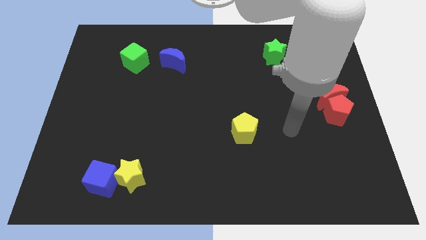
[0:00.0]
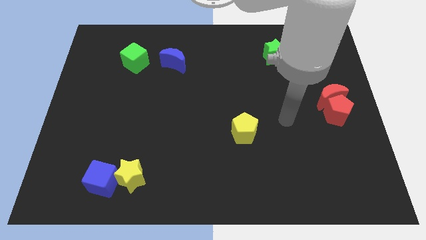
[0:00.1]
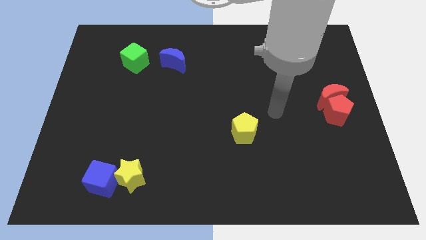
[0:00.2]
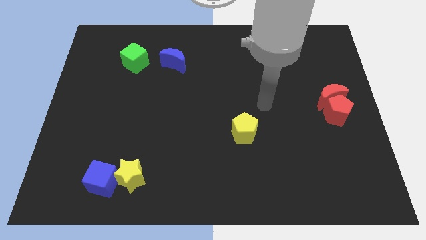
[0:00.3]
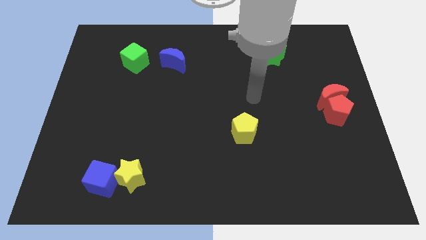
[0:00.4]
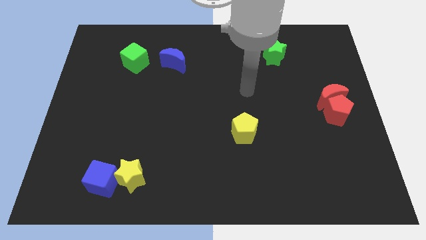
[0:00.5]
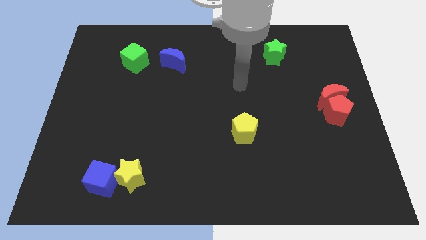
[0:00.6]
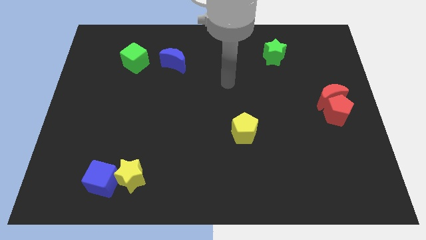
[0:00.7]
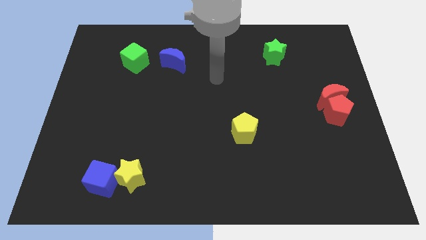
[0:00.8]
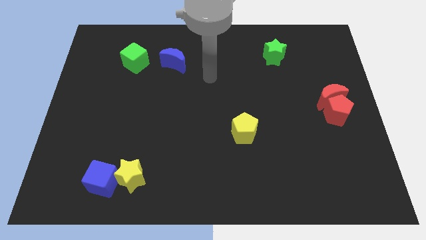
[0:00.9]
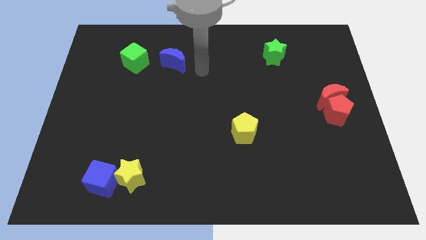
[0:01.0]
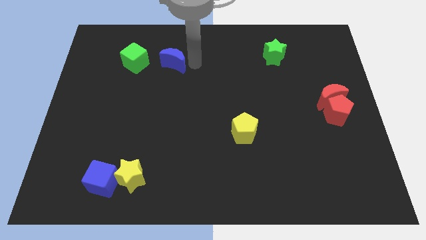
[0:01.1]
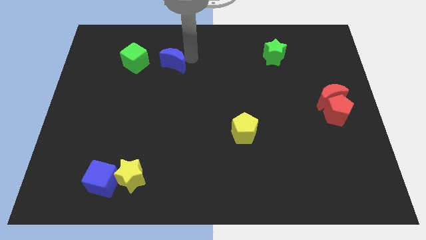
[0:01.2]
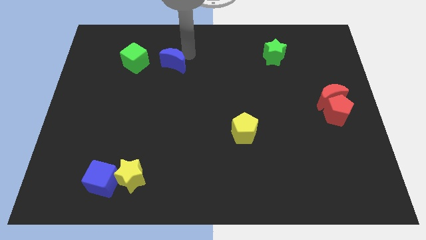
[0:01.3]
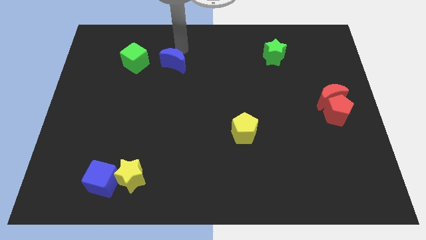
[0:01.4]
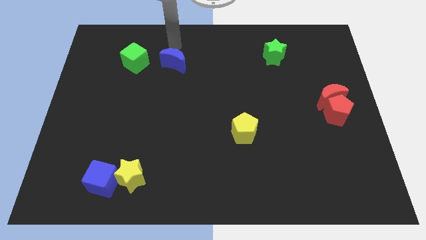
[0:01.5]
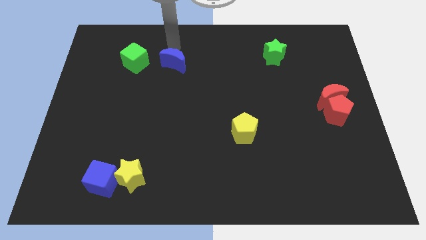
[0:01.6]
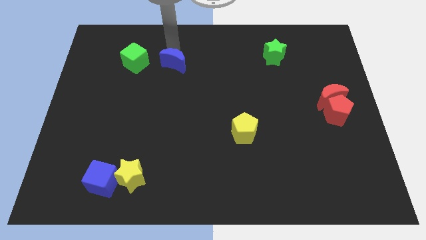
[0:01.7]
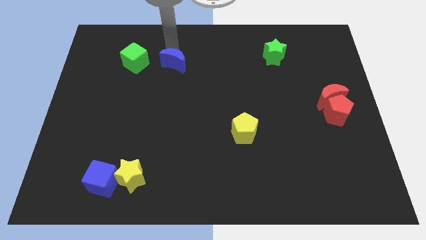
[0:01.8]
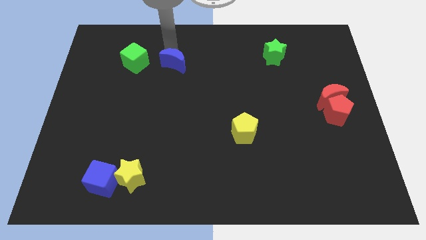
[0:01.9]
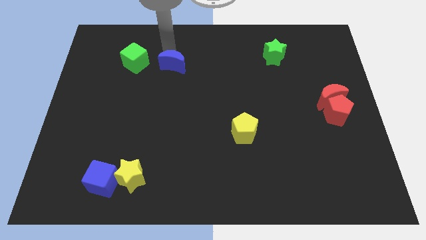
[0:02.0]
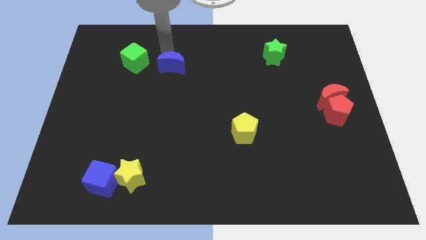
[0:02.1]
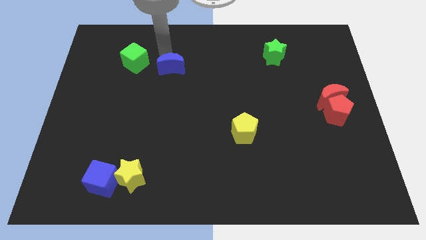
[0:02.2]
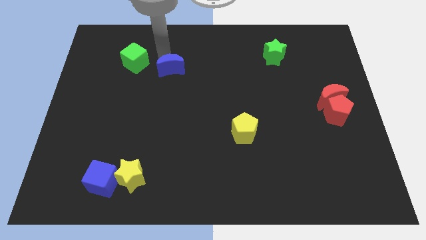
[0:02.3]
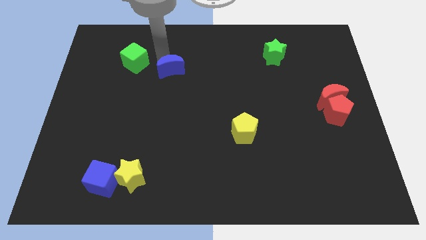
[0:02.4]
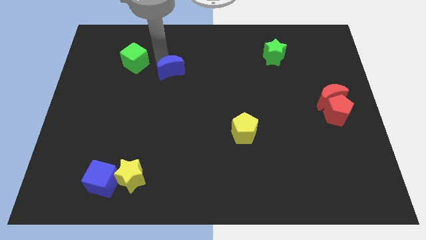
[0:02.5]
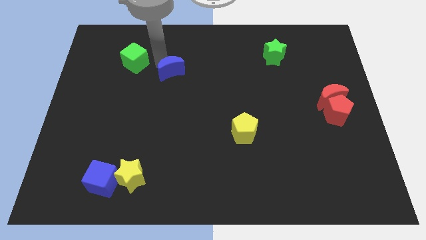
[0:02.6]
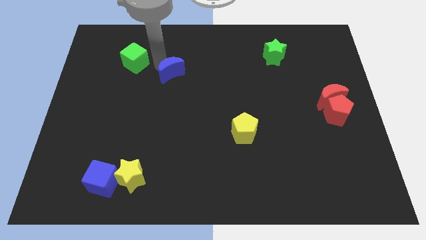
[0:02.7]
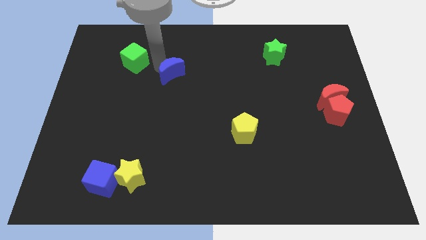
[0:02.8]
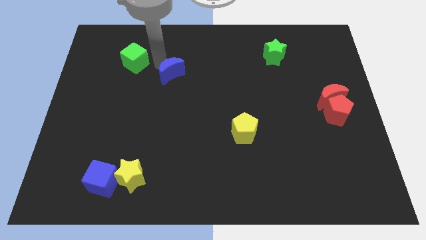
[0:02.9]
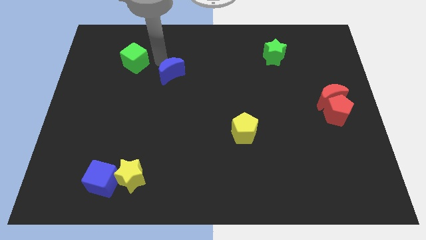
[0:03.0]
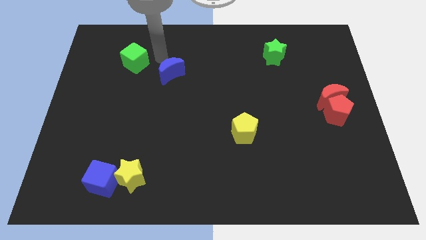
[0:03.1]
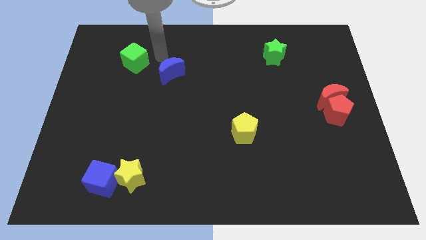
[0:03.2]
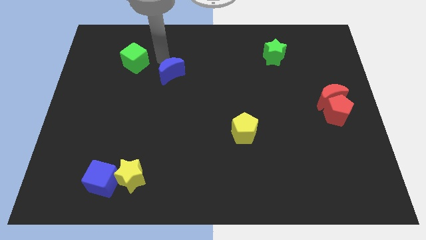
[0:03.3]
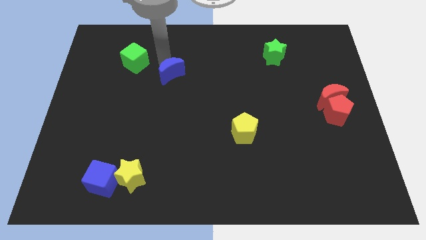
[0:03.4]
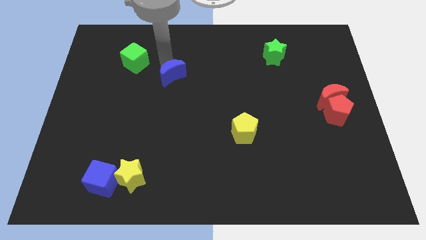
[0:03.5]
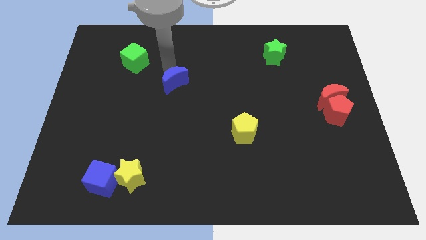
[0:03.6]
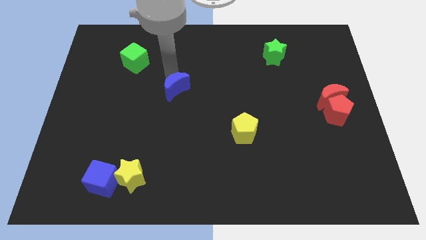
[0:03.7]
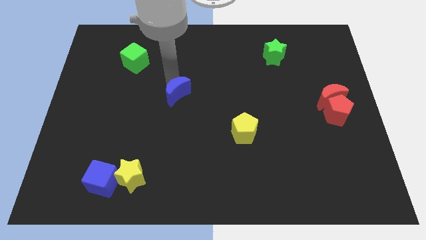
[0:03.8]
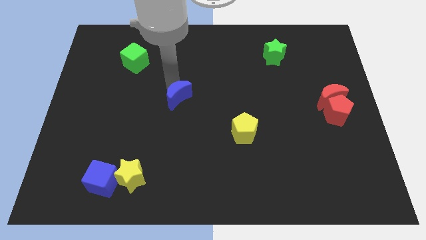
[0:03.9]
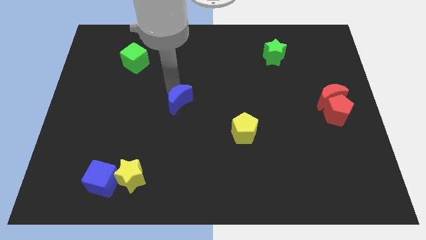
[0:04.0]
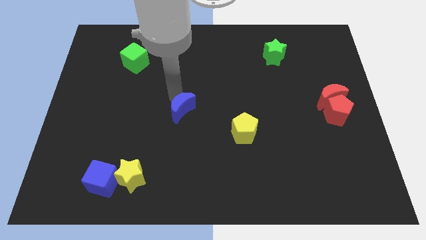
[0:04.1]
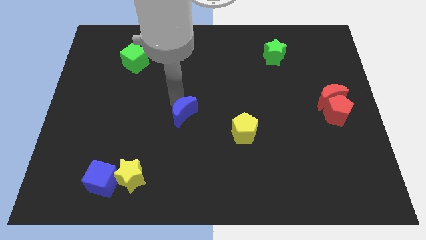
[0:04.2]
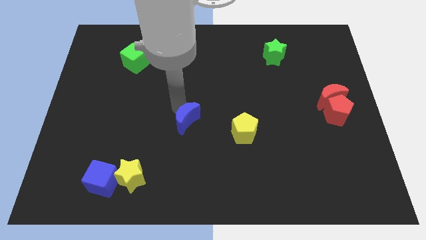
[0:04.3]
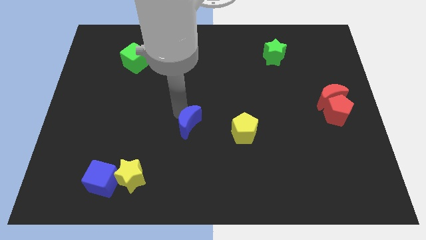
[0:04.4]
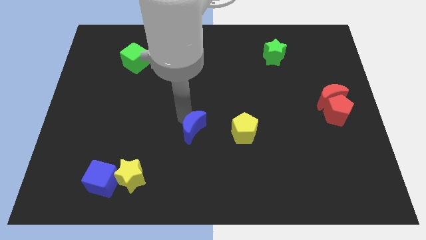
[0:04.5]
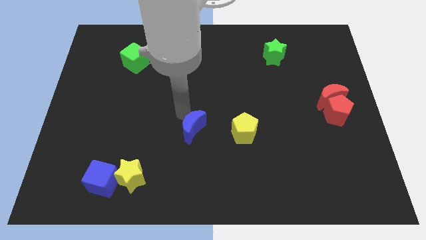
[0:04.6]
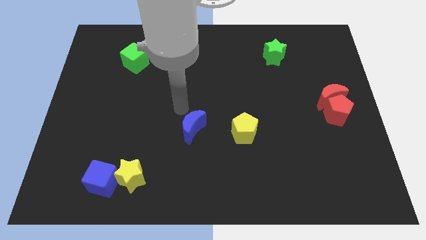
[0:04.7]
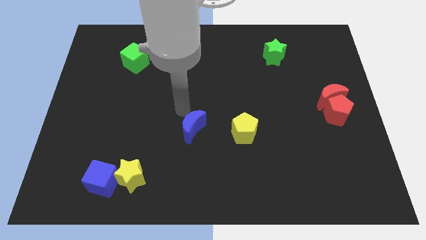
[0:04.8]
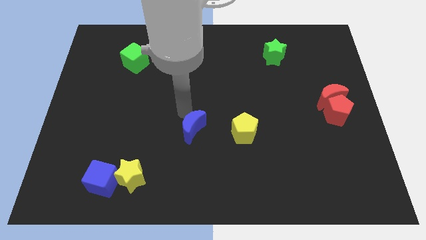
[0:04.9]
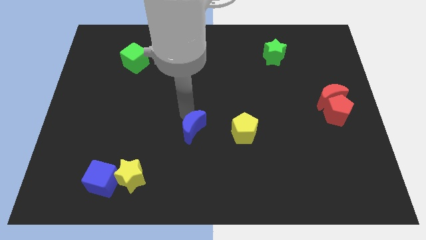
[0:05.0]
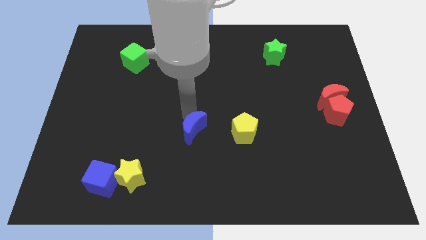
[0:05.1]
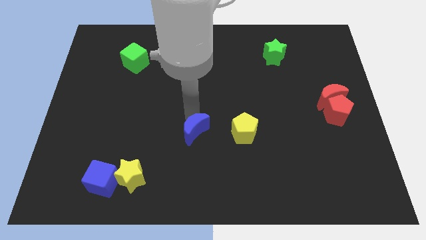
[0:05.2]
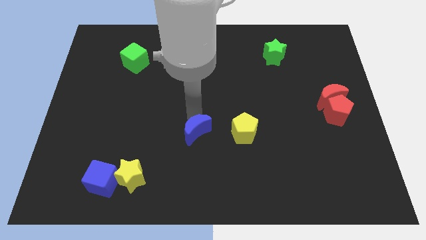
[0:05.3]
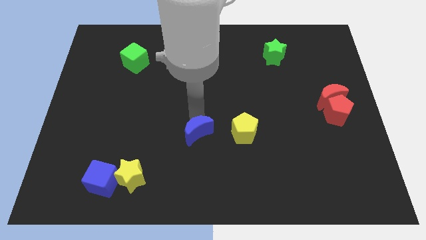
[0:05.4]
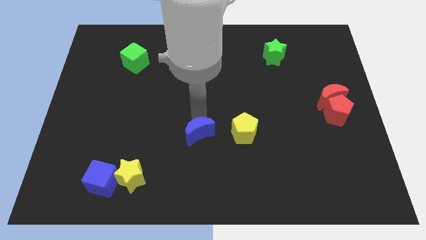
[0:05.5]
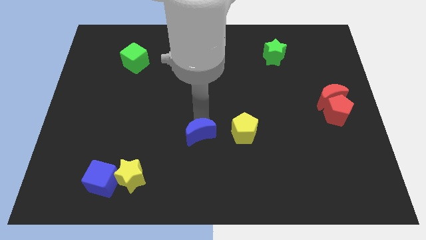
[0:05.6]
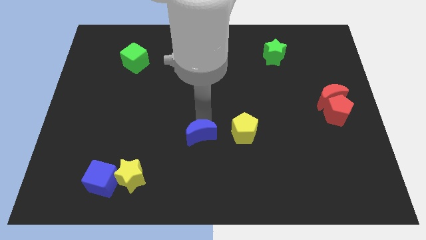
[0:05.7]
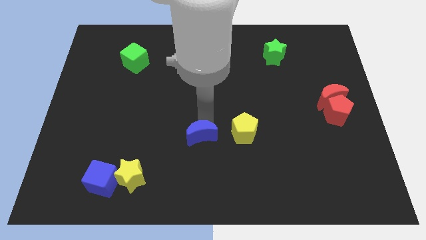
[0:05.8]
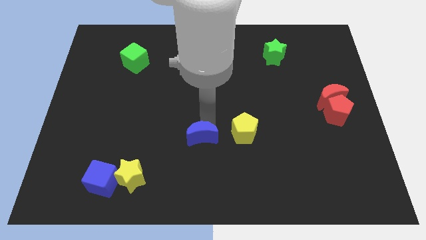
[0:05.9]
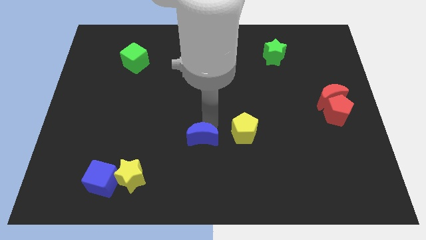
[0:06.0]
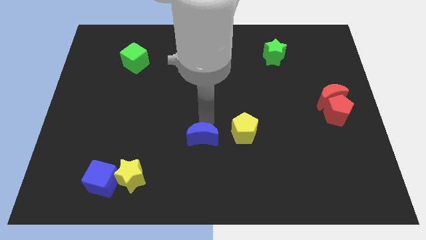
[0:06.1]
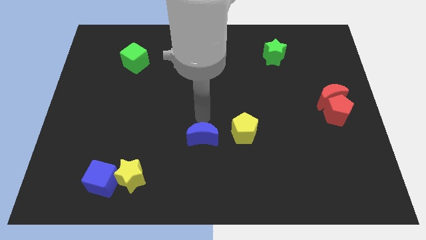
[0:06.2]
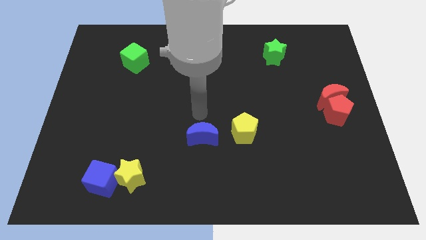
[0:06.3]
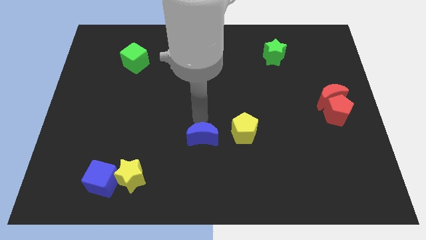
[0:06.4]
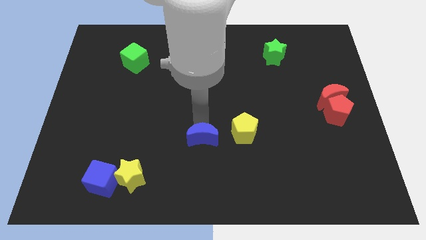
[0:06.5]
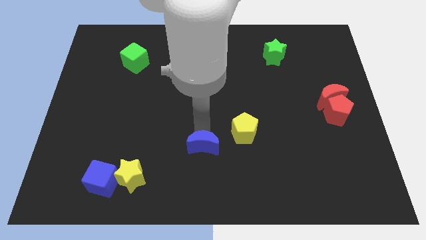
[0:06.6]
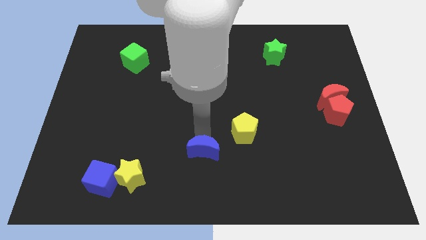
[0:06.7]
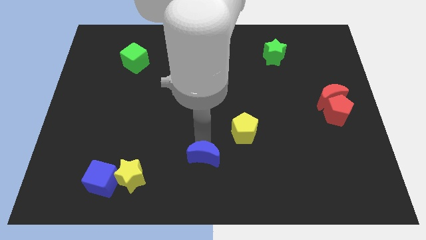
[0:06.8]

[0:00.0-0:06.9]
slide the blue moon to the bottom

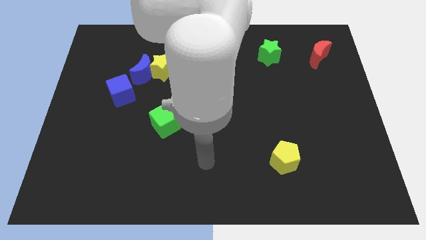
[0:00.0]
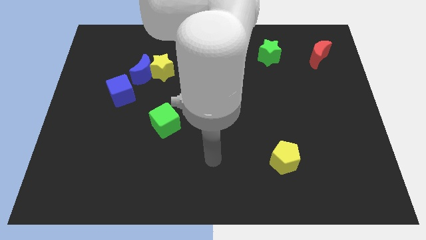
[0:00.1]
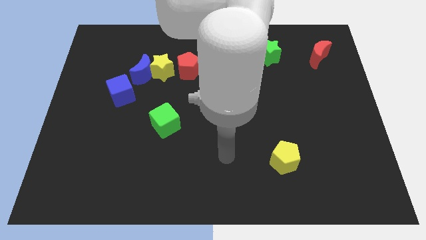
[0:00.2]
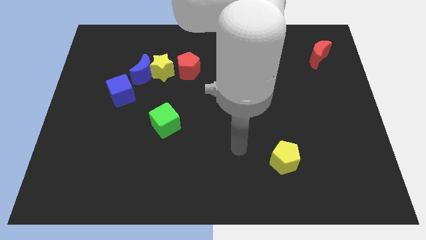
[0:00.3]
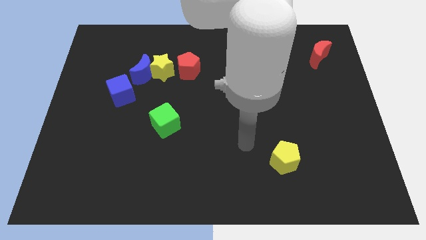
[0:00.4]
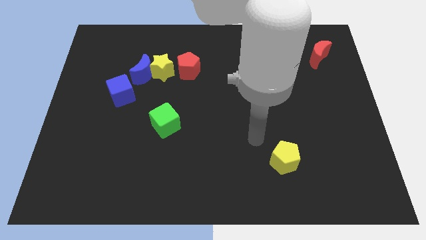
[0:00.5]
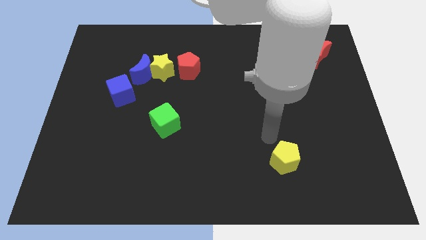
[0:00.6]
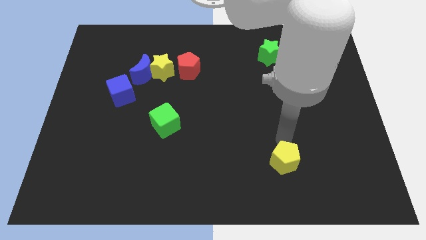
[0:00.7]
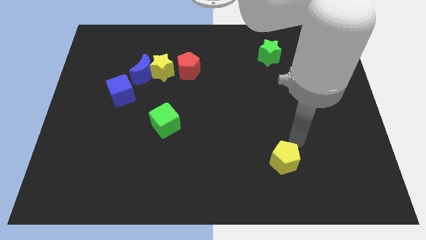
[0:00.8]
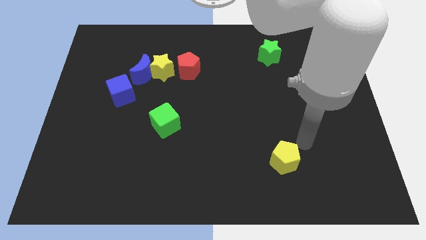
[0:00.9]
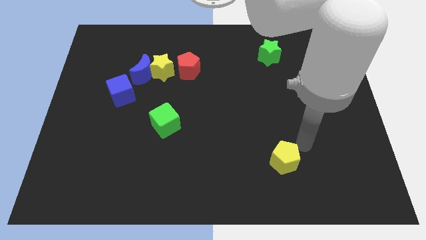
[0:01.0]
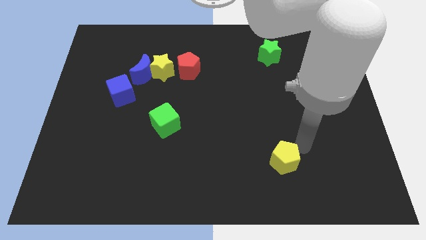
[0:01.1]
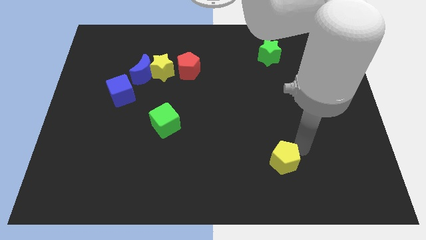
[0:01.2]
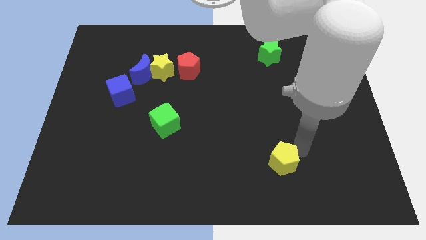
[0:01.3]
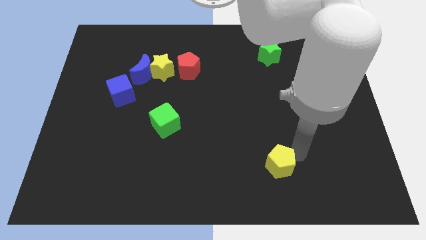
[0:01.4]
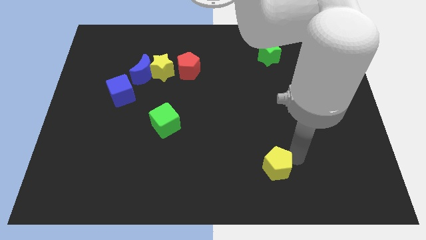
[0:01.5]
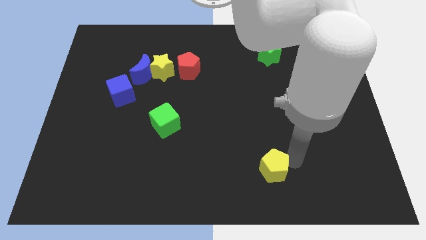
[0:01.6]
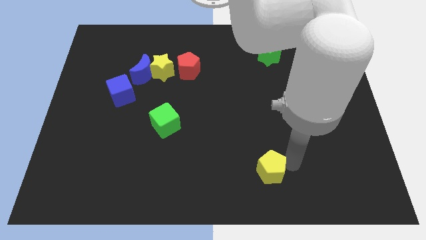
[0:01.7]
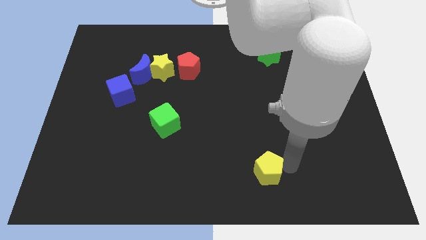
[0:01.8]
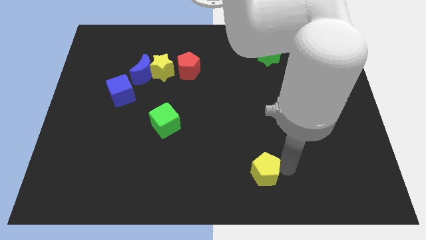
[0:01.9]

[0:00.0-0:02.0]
slide the yellow pentagon to the bottom
